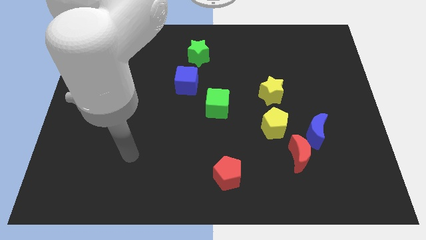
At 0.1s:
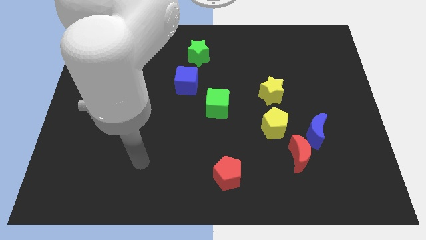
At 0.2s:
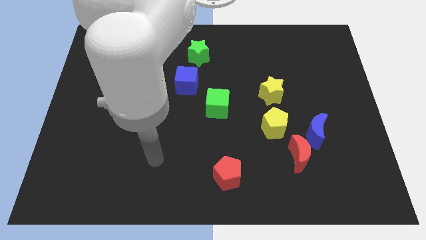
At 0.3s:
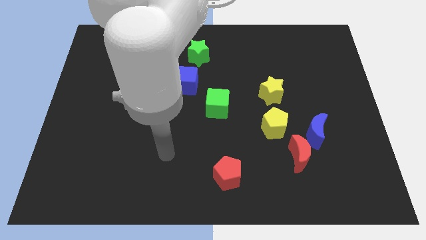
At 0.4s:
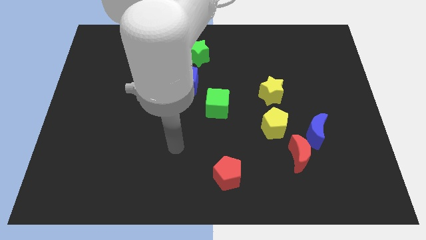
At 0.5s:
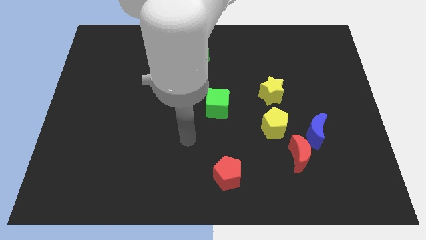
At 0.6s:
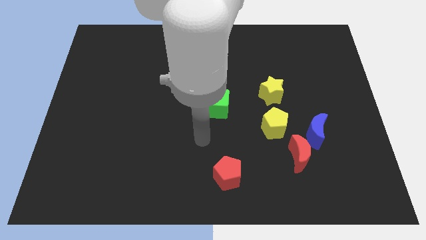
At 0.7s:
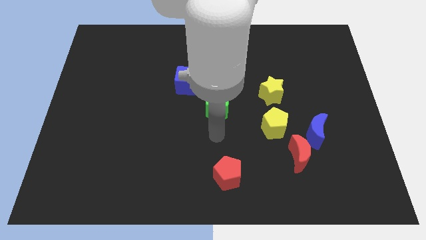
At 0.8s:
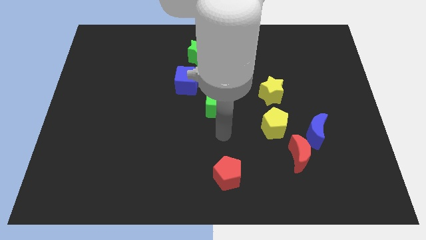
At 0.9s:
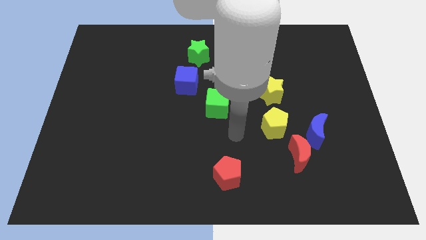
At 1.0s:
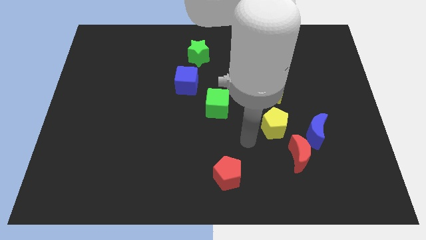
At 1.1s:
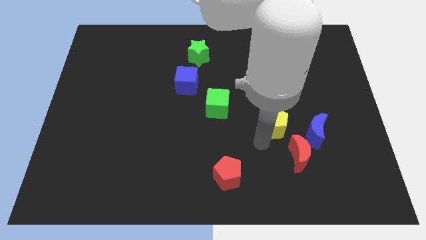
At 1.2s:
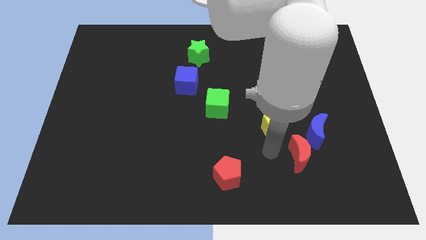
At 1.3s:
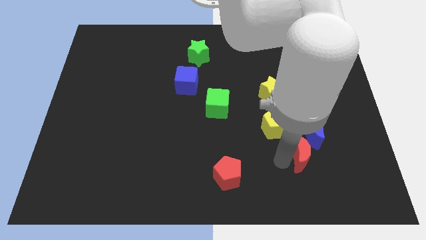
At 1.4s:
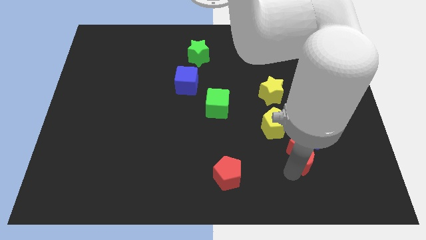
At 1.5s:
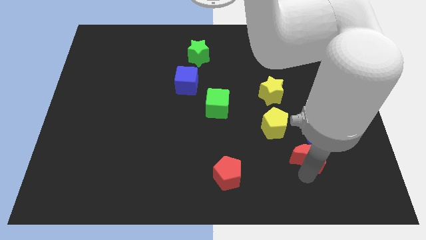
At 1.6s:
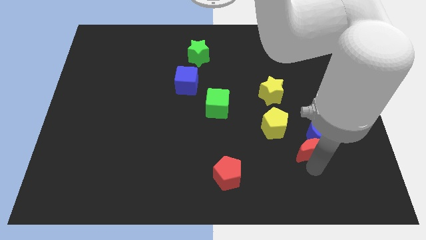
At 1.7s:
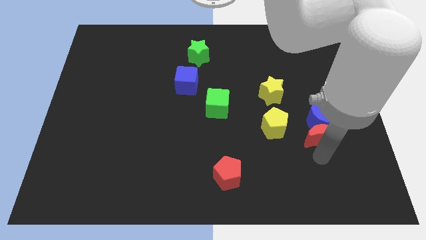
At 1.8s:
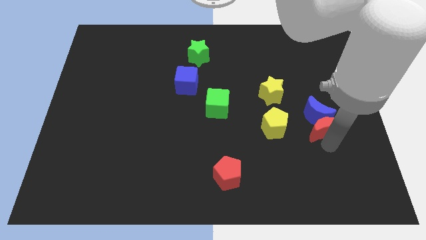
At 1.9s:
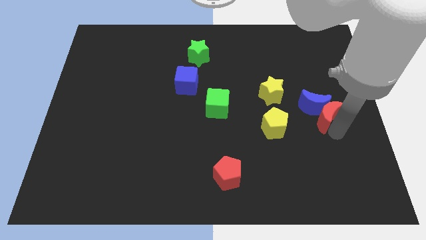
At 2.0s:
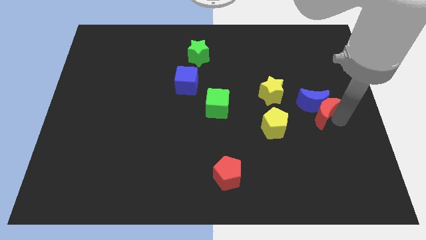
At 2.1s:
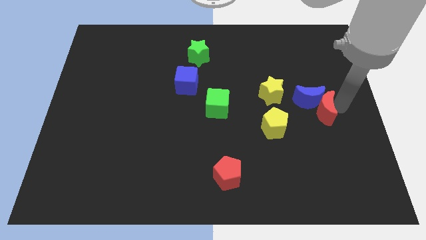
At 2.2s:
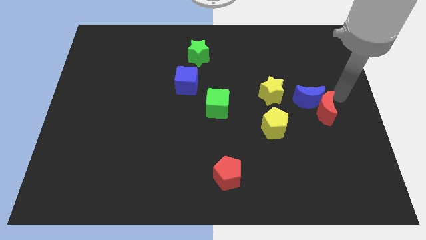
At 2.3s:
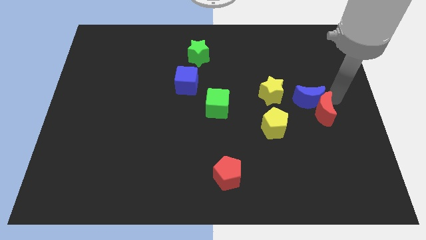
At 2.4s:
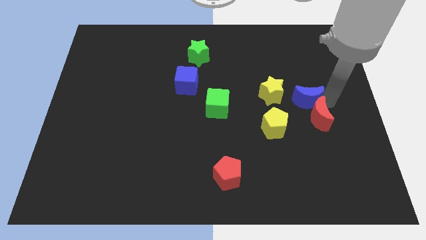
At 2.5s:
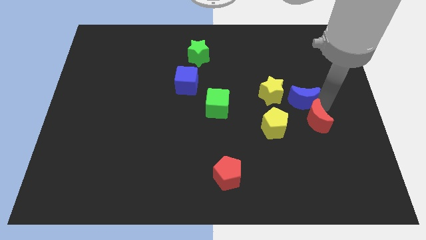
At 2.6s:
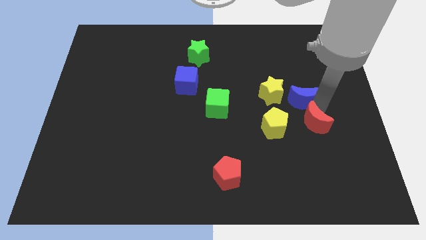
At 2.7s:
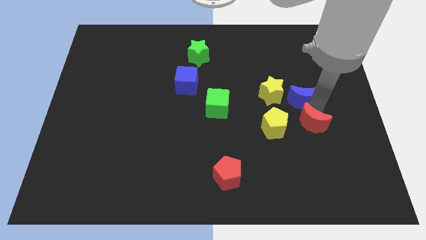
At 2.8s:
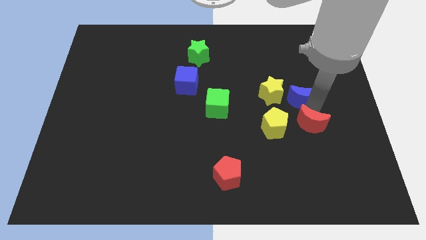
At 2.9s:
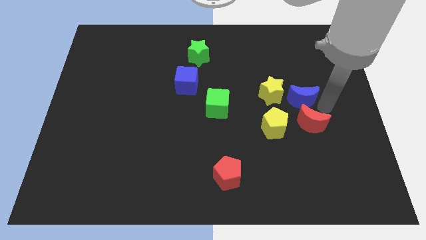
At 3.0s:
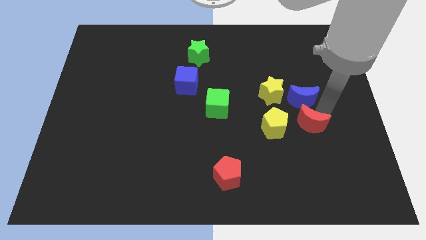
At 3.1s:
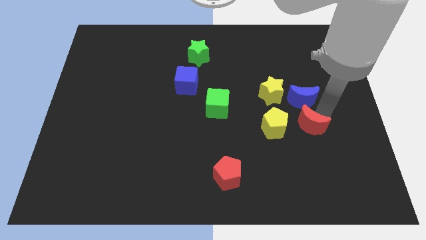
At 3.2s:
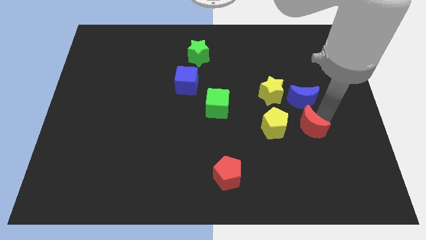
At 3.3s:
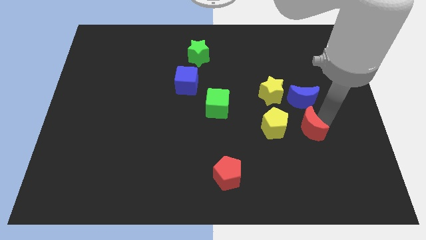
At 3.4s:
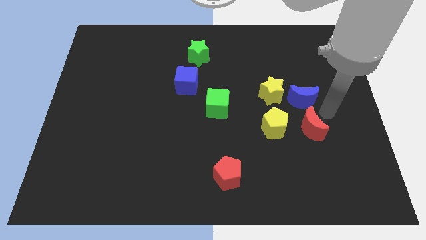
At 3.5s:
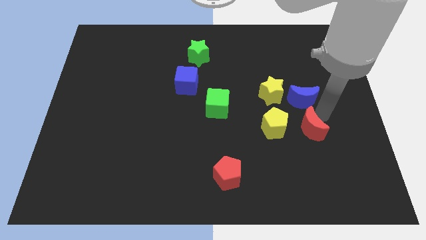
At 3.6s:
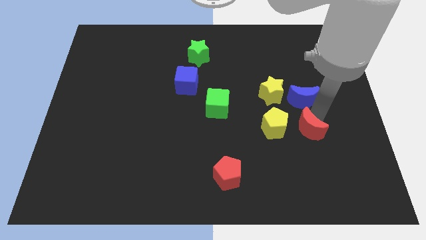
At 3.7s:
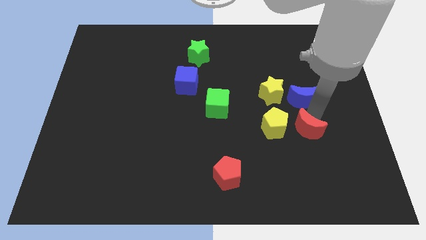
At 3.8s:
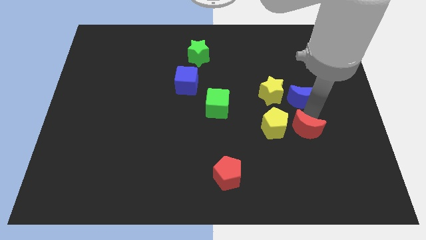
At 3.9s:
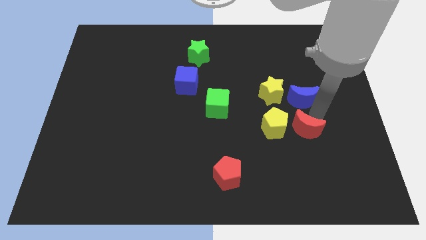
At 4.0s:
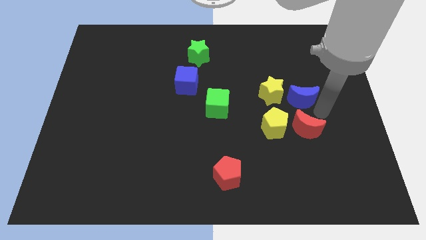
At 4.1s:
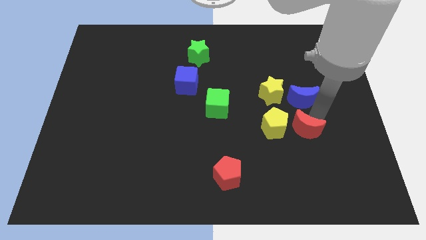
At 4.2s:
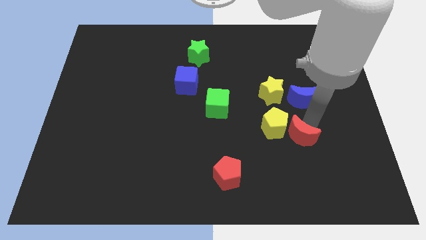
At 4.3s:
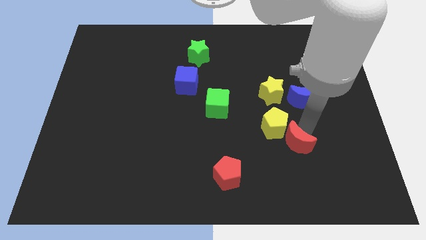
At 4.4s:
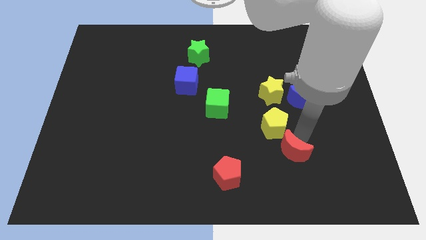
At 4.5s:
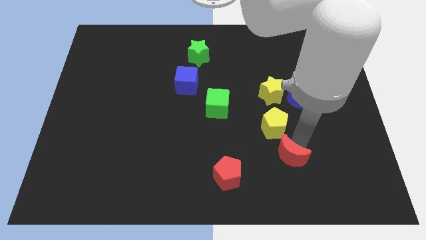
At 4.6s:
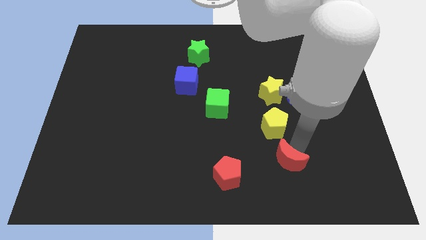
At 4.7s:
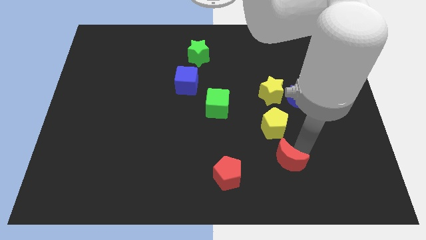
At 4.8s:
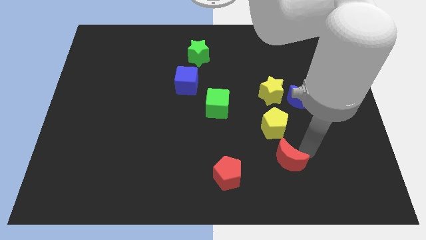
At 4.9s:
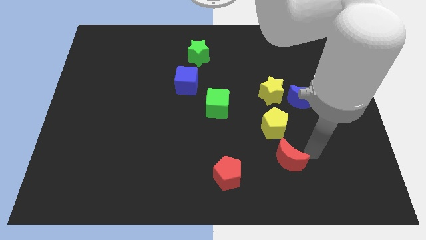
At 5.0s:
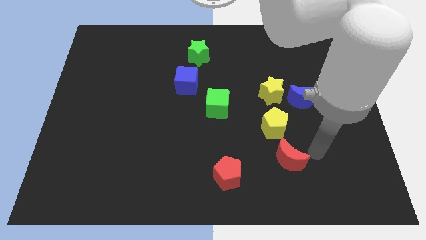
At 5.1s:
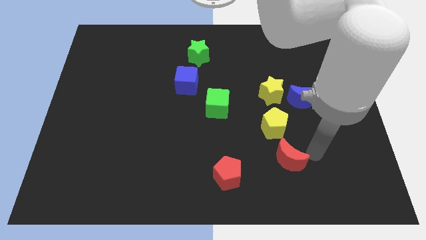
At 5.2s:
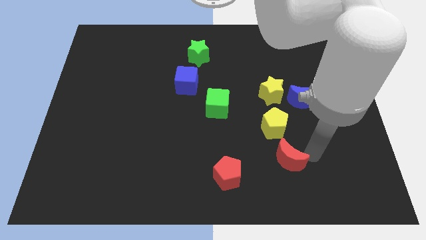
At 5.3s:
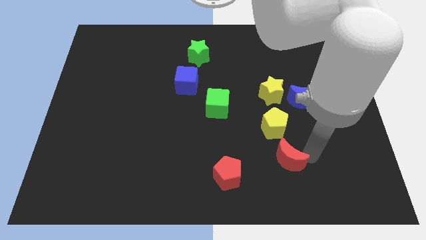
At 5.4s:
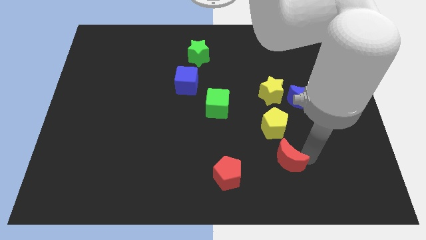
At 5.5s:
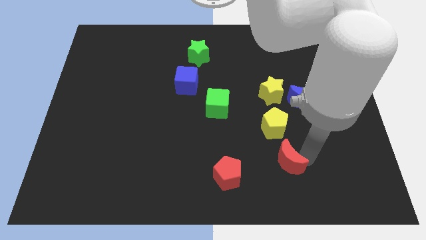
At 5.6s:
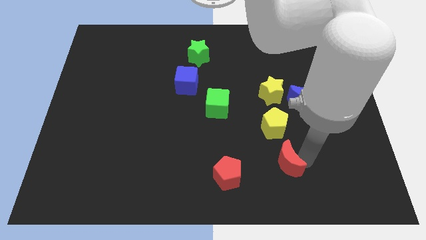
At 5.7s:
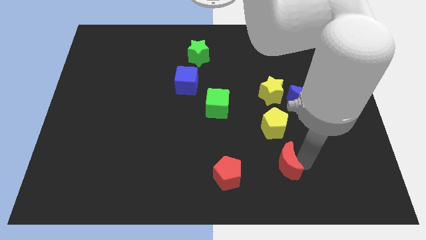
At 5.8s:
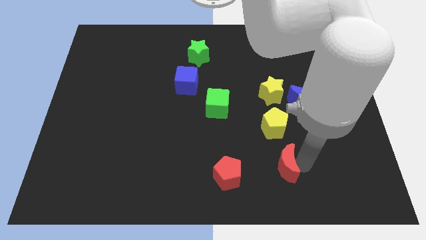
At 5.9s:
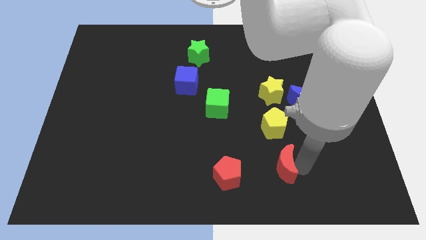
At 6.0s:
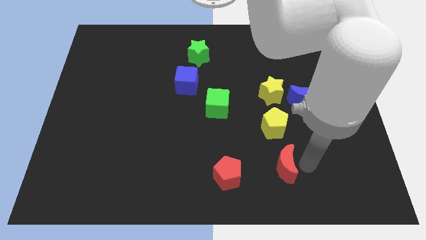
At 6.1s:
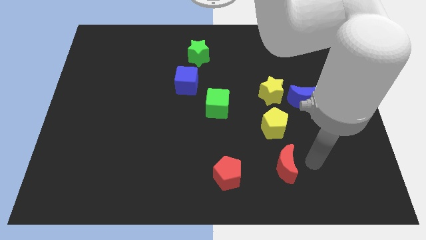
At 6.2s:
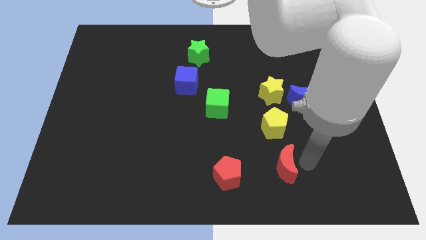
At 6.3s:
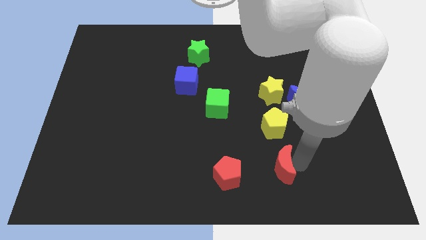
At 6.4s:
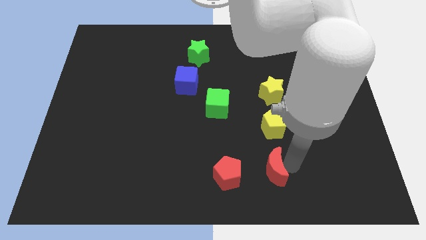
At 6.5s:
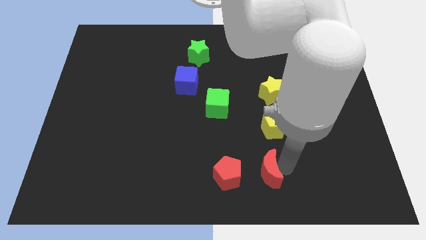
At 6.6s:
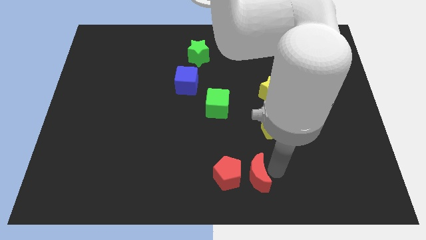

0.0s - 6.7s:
push the red moon close to the red pentagon
